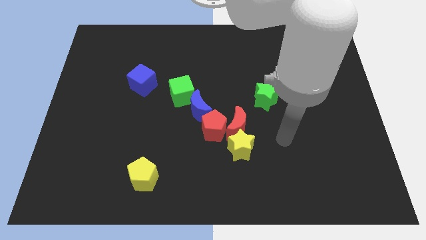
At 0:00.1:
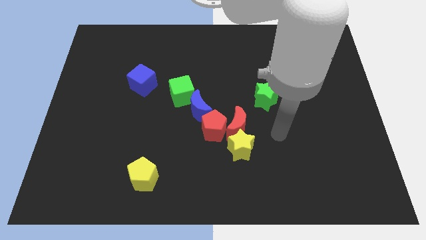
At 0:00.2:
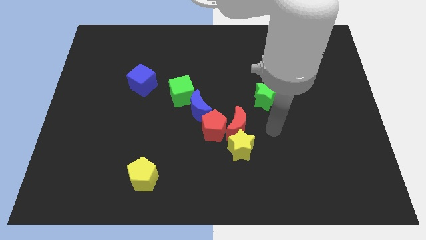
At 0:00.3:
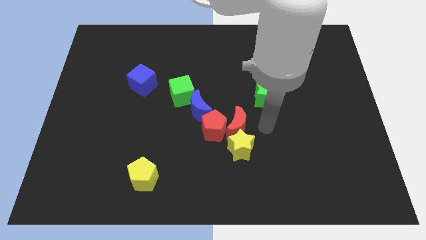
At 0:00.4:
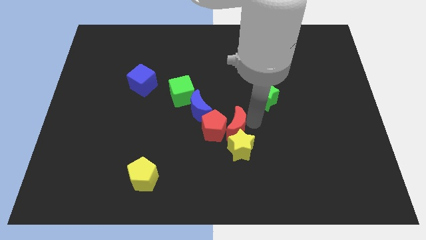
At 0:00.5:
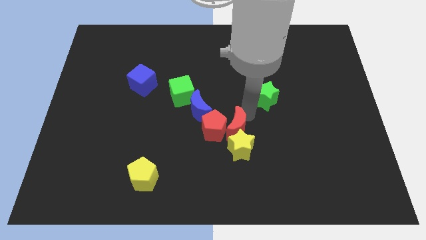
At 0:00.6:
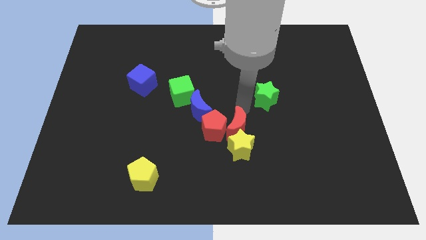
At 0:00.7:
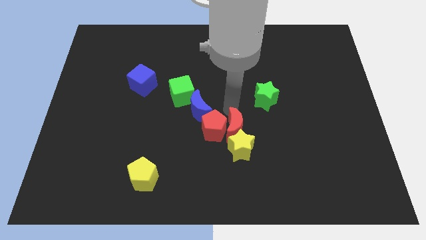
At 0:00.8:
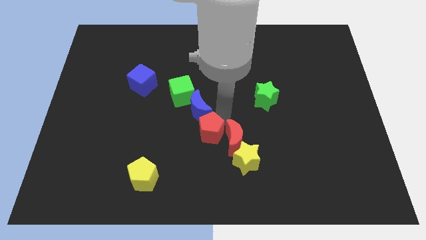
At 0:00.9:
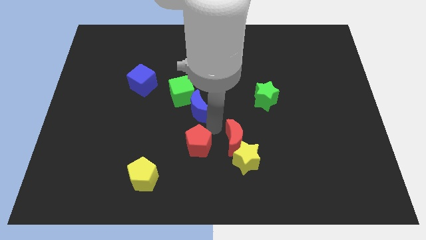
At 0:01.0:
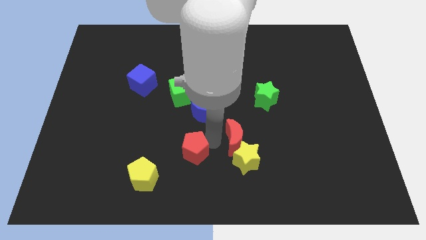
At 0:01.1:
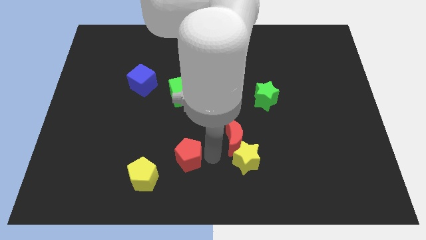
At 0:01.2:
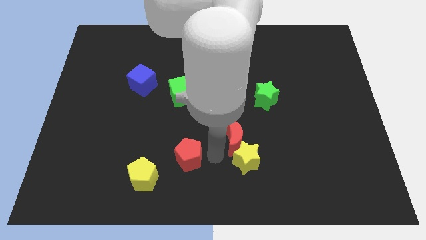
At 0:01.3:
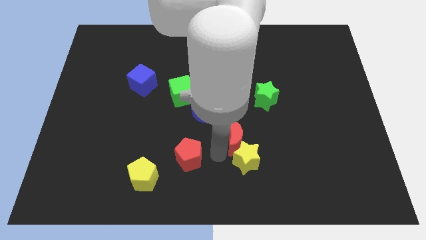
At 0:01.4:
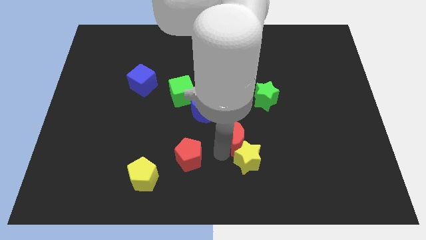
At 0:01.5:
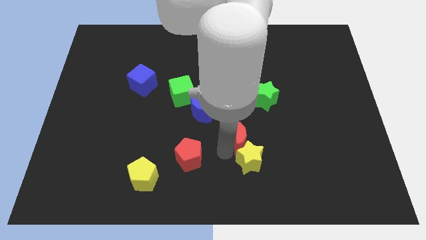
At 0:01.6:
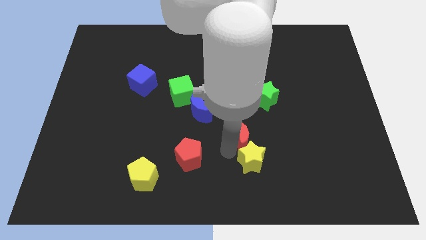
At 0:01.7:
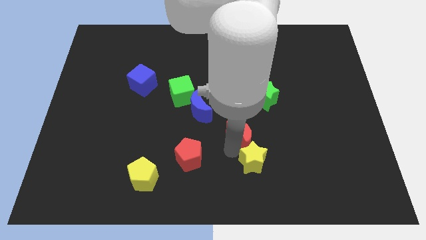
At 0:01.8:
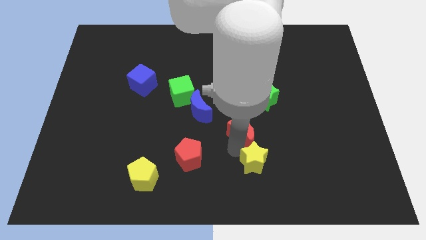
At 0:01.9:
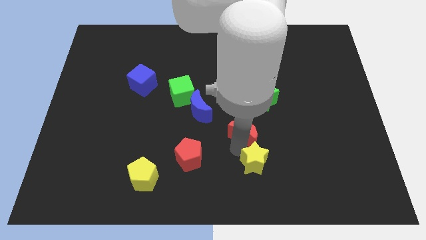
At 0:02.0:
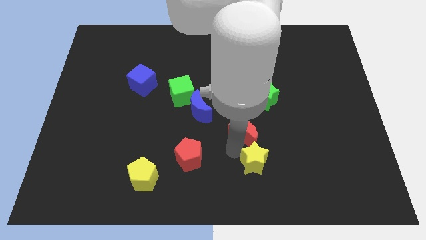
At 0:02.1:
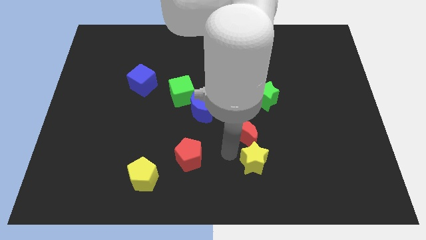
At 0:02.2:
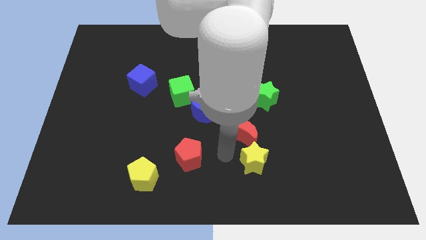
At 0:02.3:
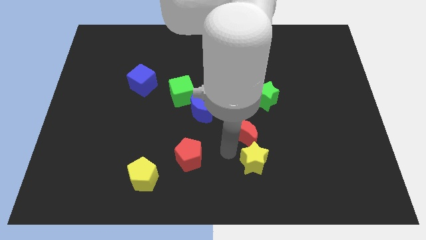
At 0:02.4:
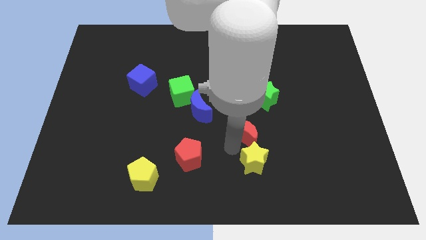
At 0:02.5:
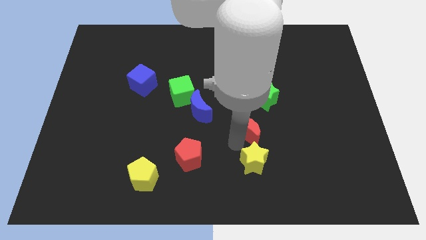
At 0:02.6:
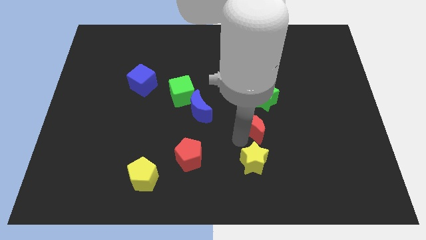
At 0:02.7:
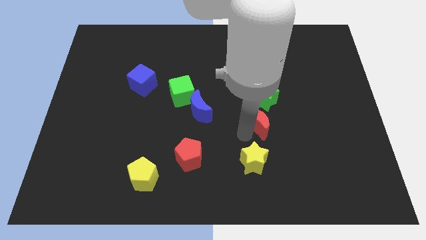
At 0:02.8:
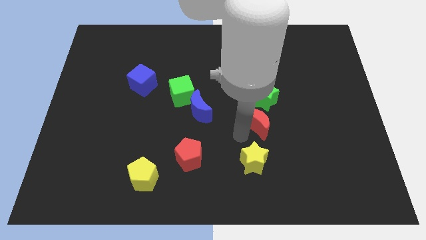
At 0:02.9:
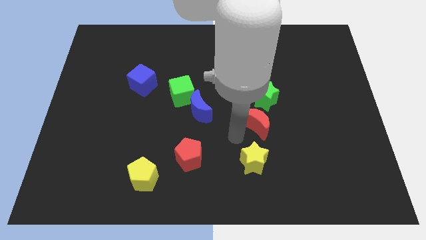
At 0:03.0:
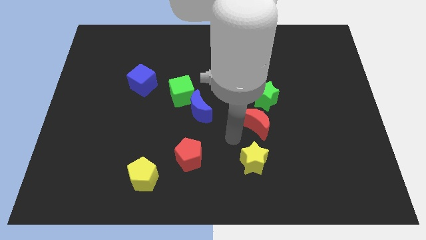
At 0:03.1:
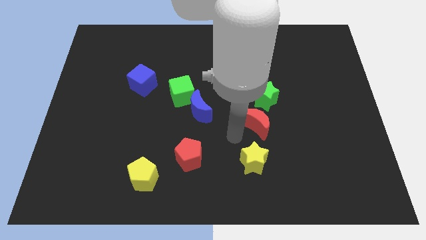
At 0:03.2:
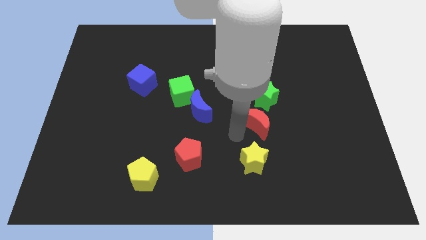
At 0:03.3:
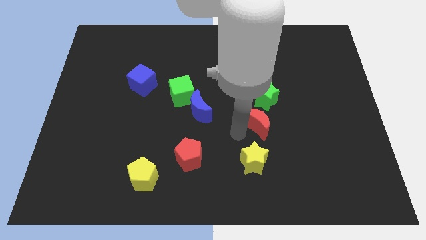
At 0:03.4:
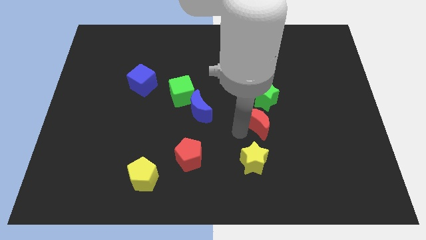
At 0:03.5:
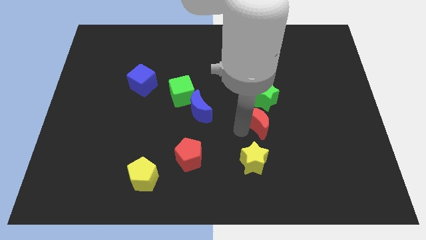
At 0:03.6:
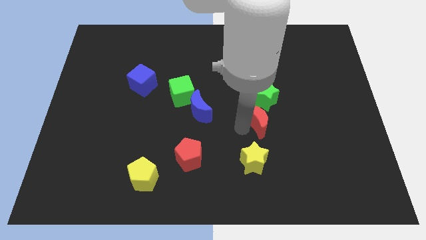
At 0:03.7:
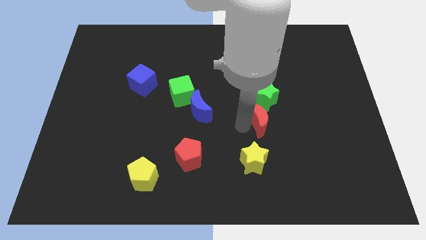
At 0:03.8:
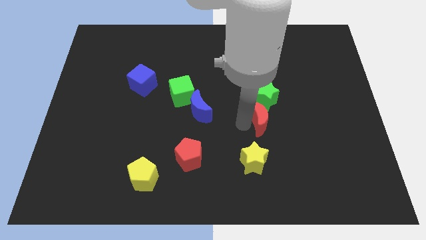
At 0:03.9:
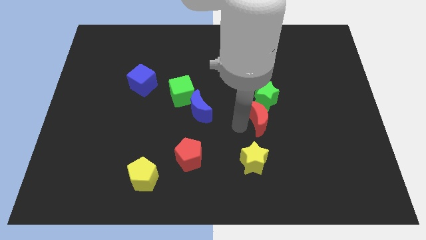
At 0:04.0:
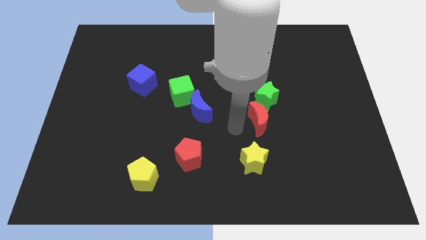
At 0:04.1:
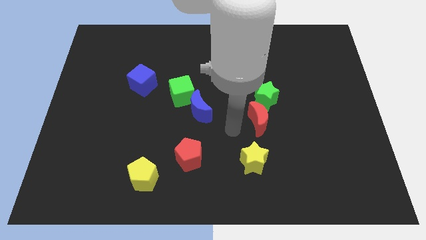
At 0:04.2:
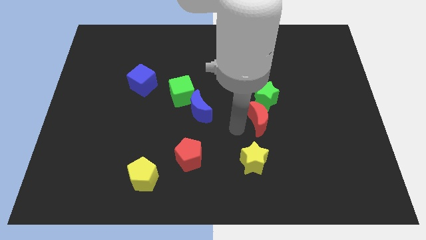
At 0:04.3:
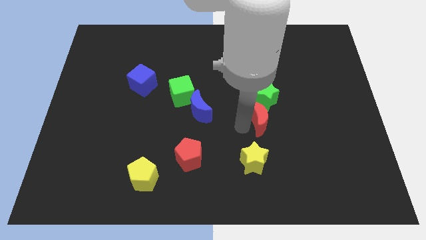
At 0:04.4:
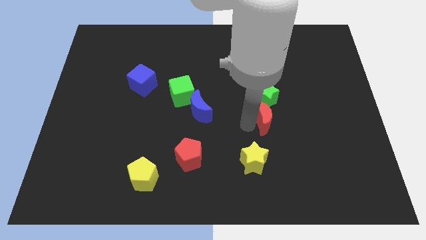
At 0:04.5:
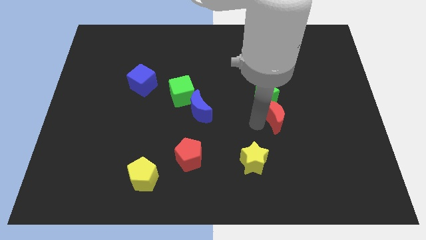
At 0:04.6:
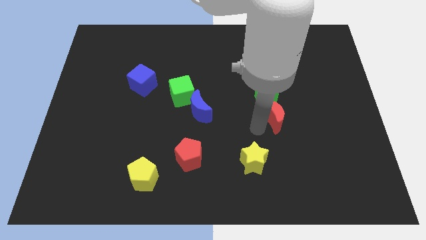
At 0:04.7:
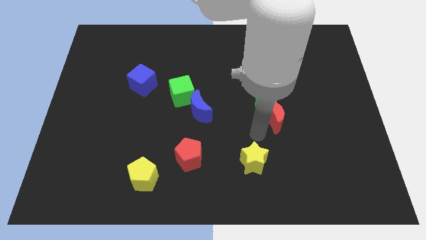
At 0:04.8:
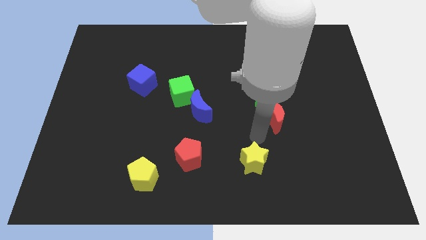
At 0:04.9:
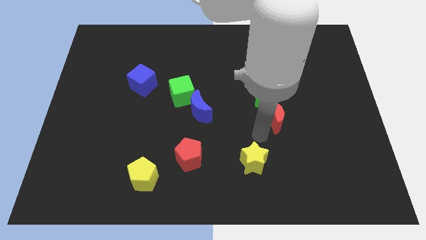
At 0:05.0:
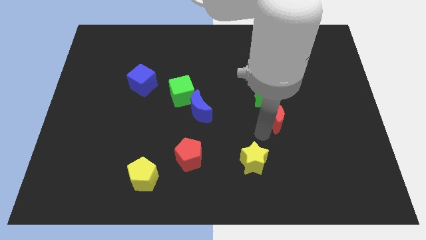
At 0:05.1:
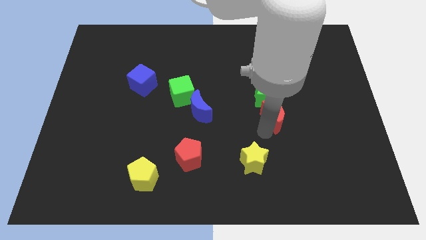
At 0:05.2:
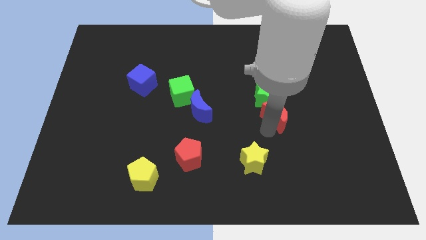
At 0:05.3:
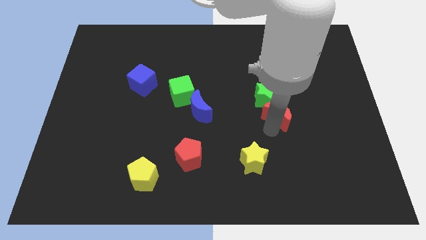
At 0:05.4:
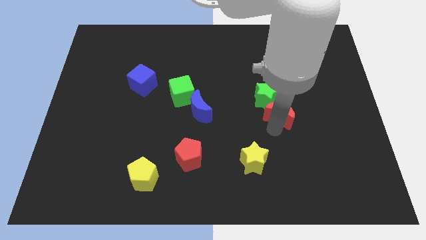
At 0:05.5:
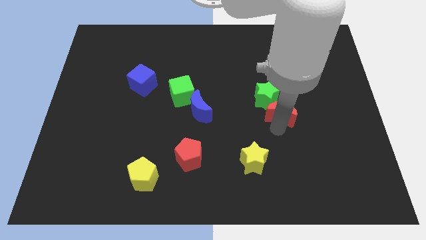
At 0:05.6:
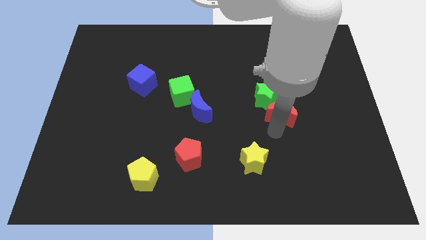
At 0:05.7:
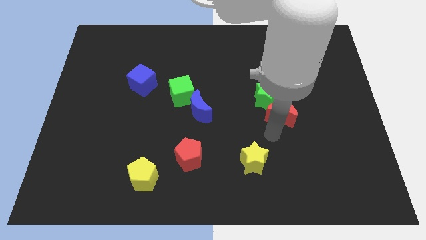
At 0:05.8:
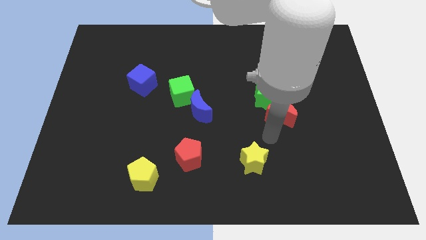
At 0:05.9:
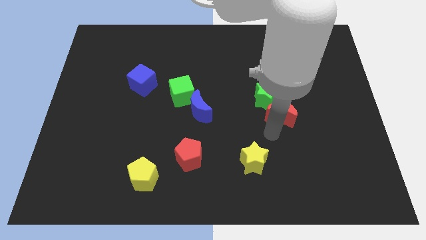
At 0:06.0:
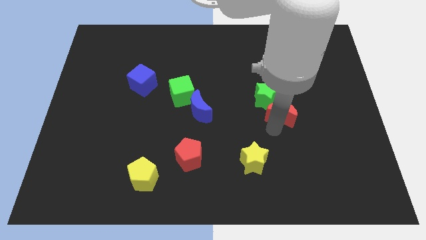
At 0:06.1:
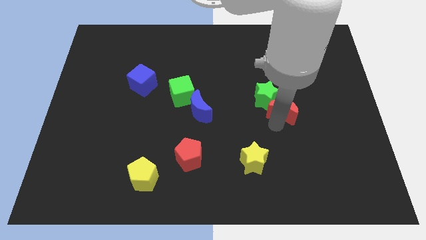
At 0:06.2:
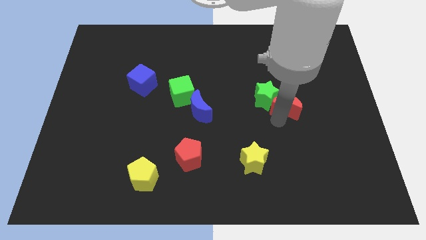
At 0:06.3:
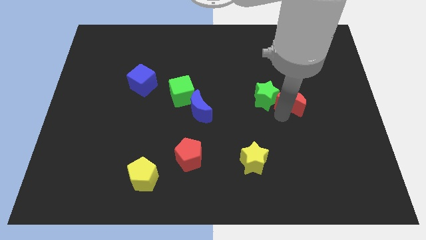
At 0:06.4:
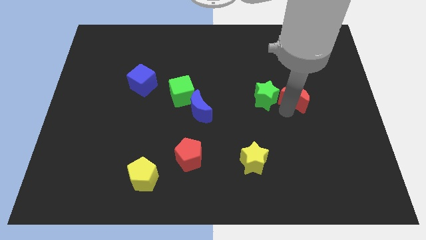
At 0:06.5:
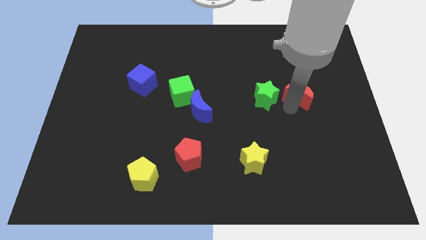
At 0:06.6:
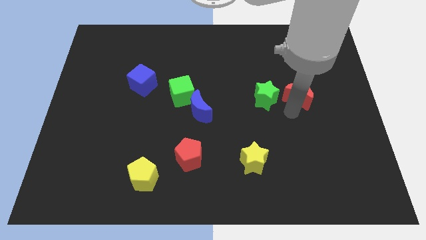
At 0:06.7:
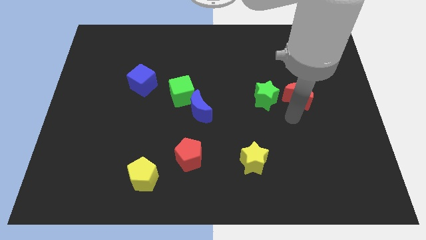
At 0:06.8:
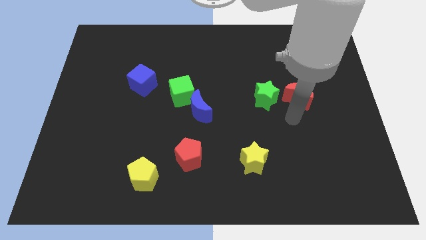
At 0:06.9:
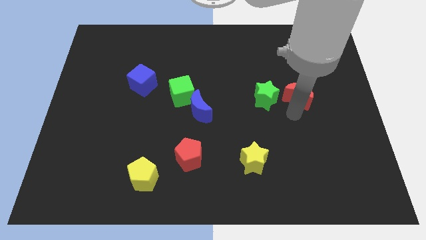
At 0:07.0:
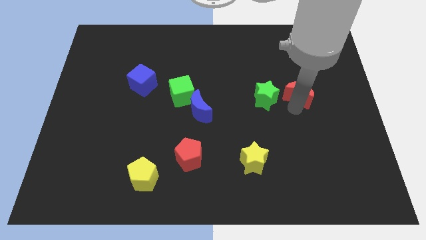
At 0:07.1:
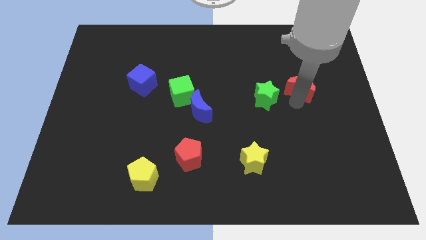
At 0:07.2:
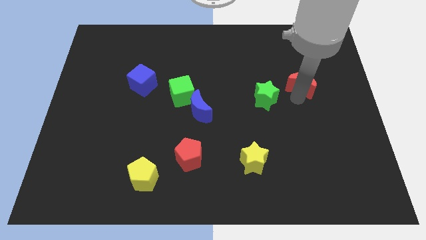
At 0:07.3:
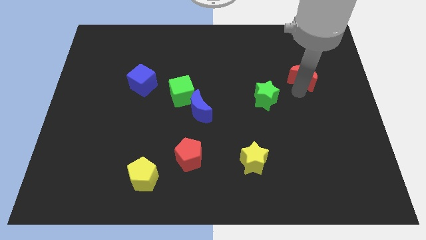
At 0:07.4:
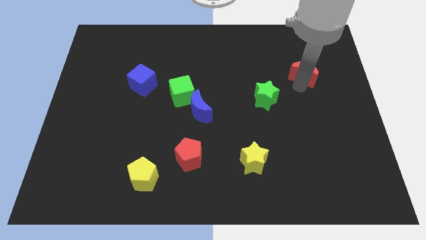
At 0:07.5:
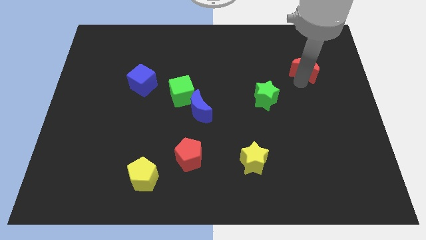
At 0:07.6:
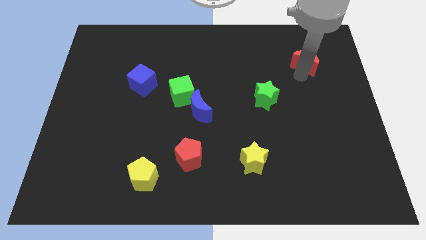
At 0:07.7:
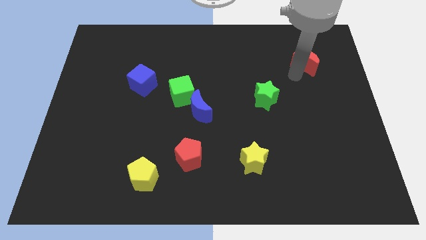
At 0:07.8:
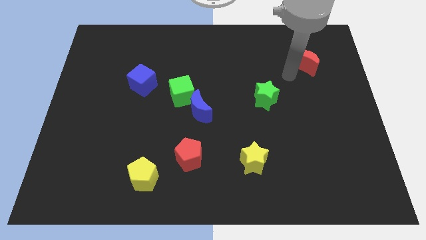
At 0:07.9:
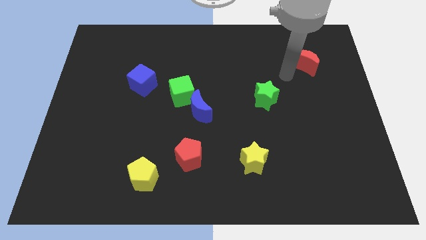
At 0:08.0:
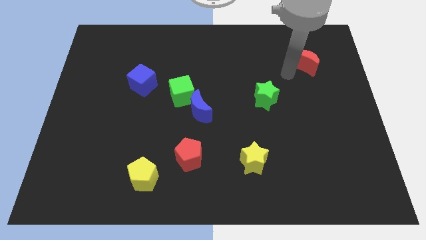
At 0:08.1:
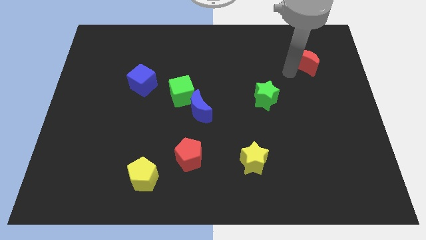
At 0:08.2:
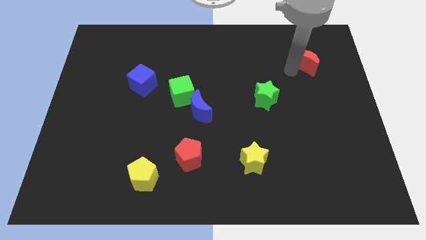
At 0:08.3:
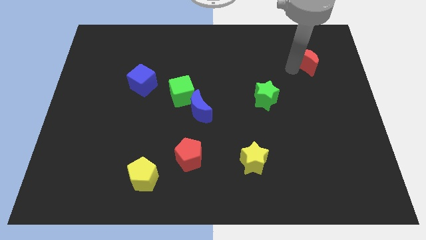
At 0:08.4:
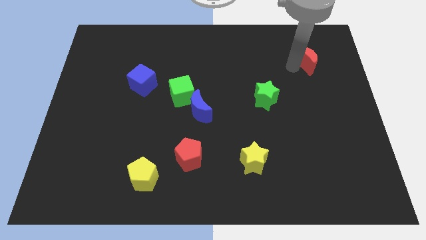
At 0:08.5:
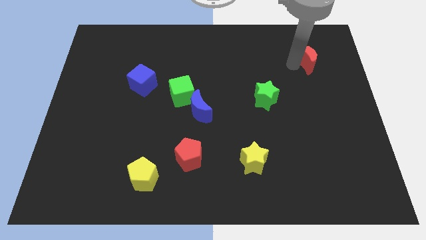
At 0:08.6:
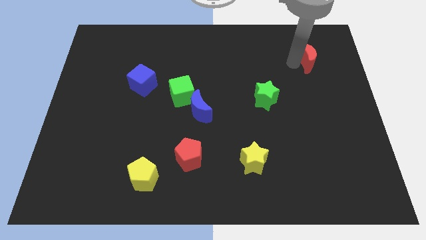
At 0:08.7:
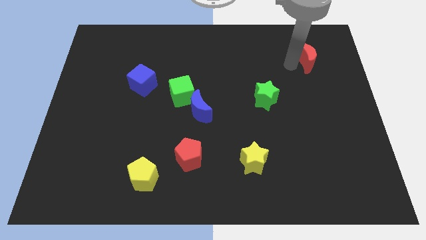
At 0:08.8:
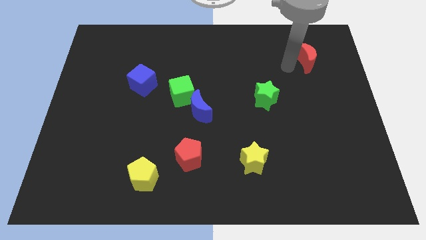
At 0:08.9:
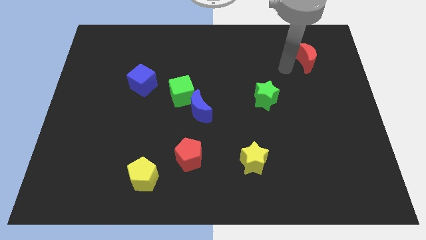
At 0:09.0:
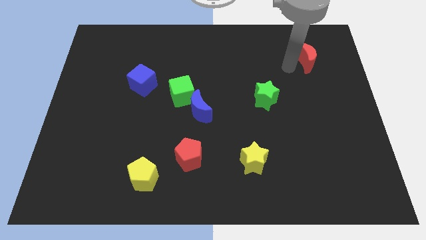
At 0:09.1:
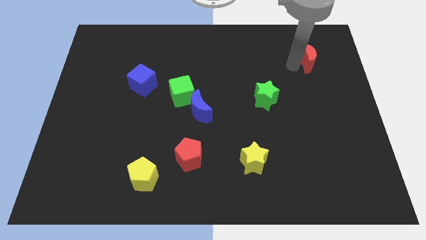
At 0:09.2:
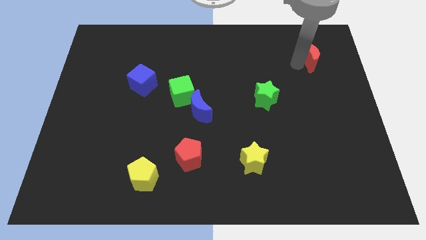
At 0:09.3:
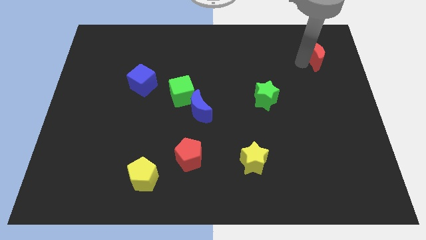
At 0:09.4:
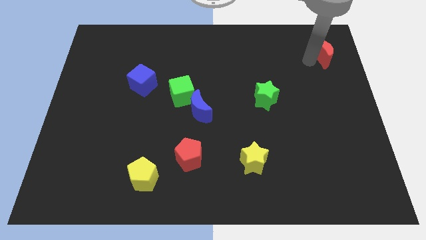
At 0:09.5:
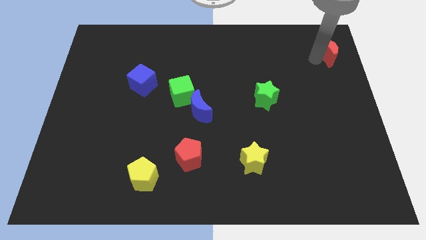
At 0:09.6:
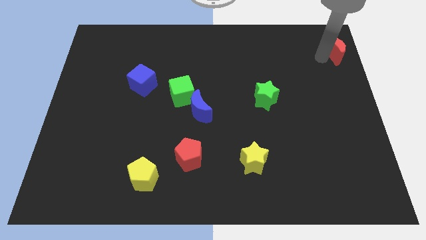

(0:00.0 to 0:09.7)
push the red moon to the top right
